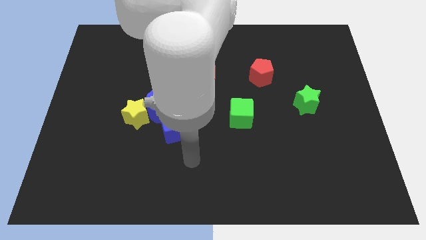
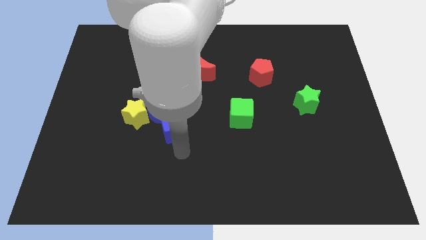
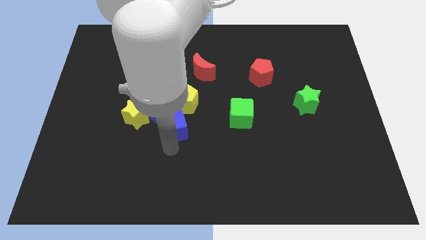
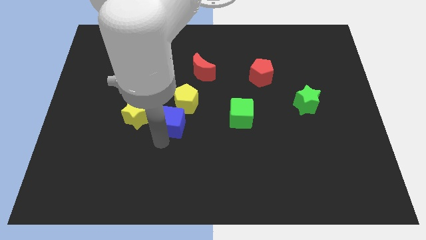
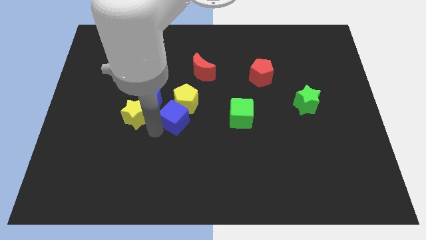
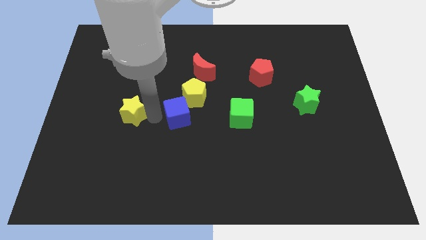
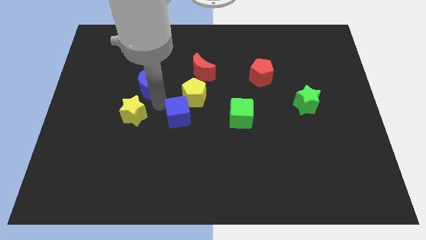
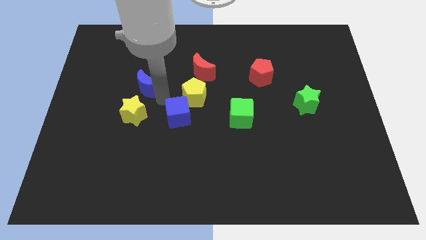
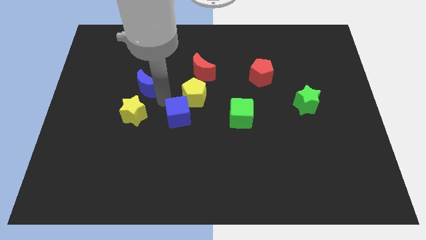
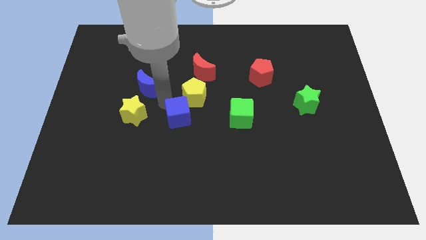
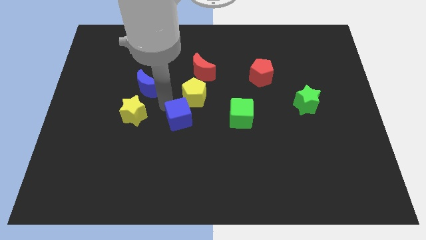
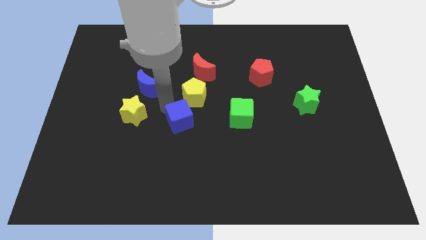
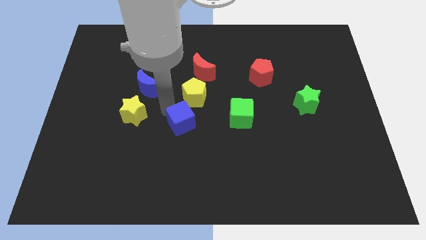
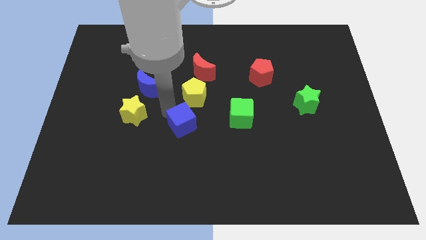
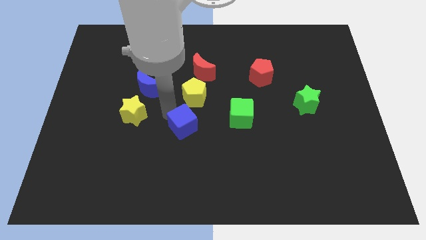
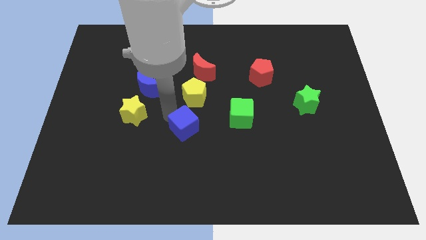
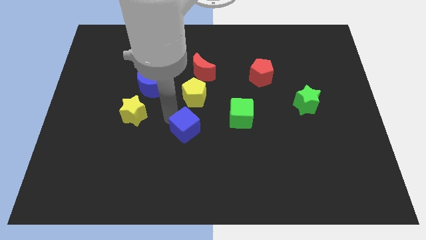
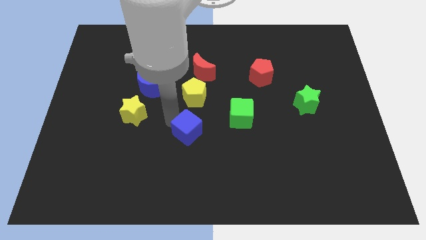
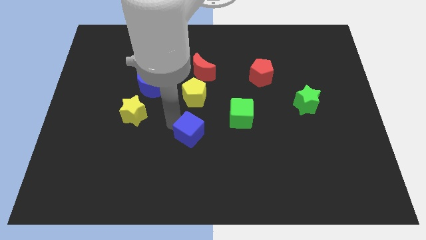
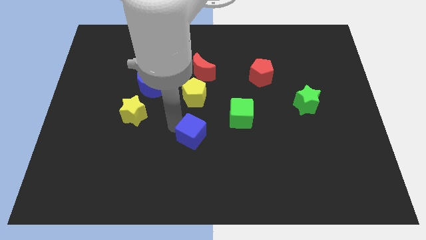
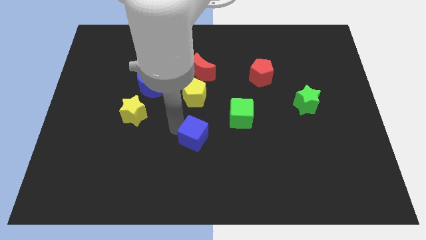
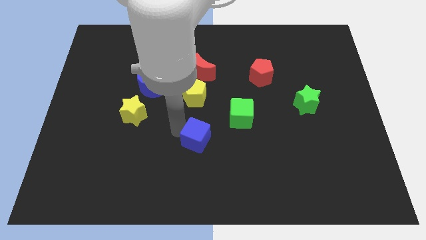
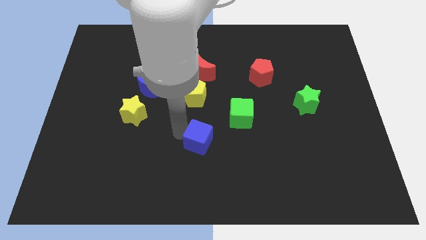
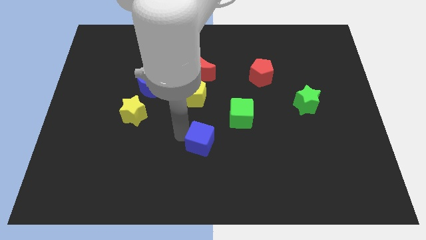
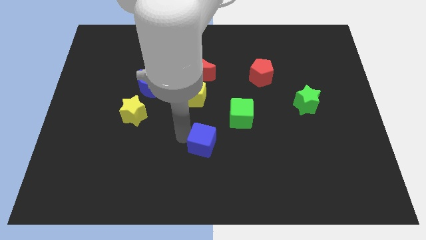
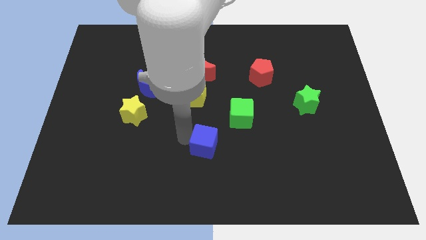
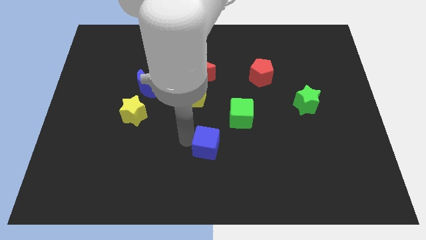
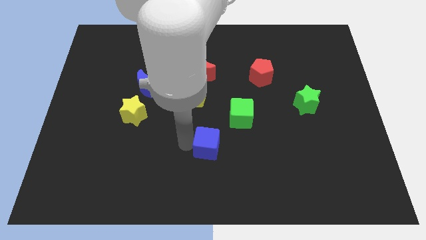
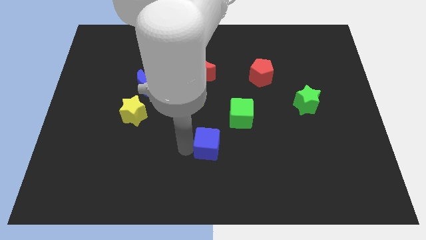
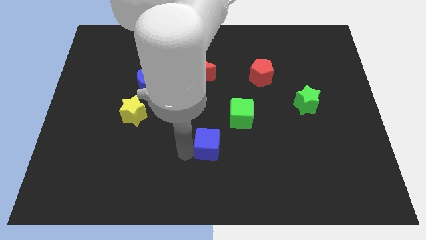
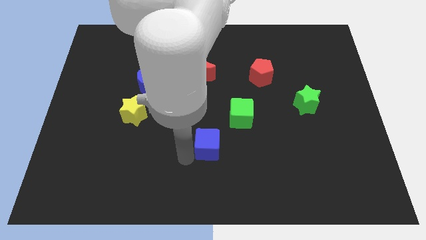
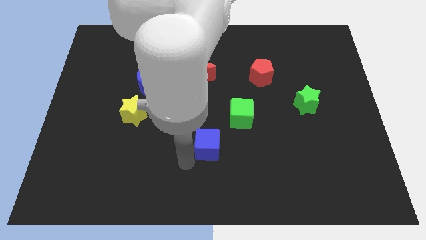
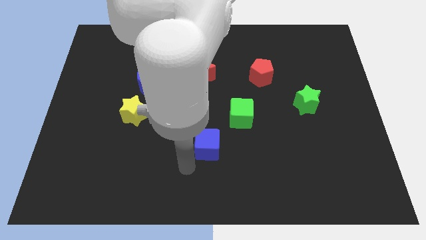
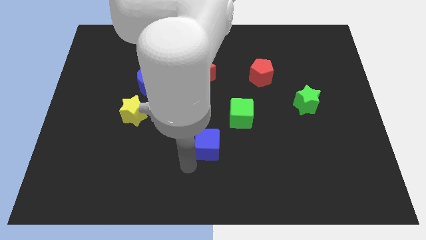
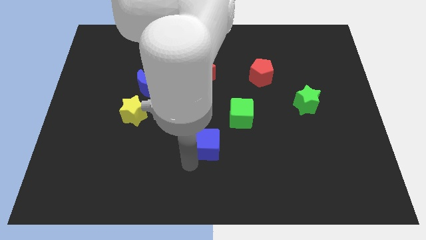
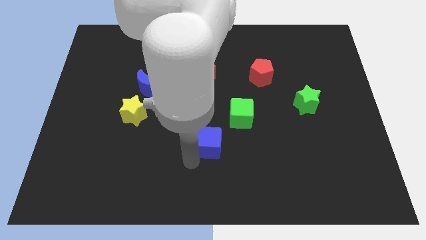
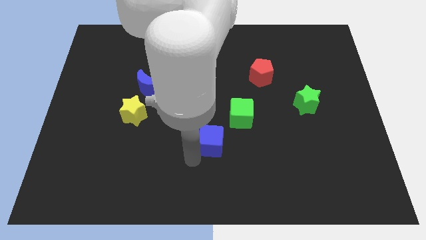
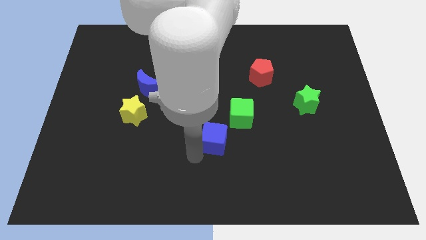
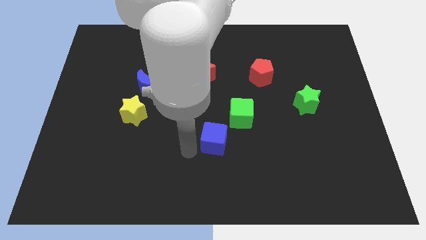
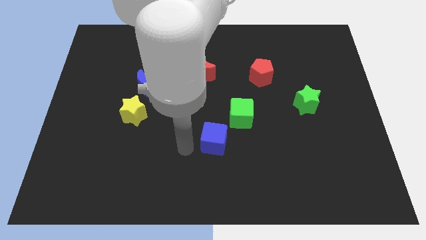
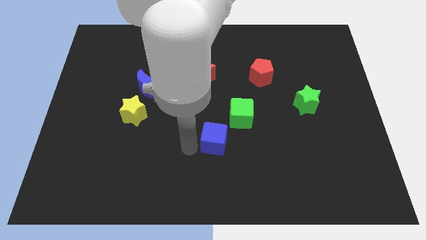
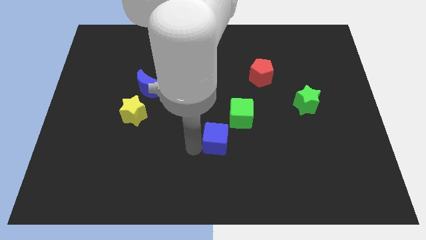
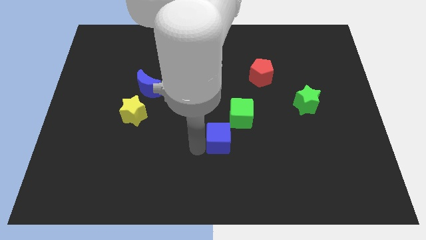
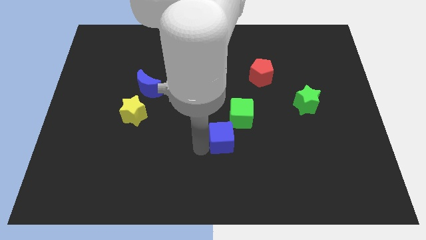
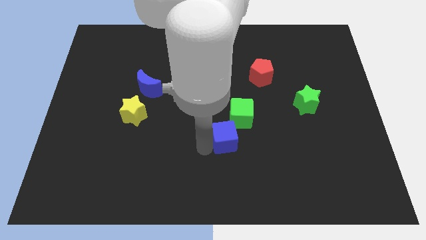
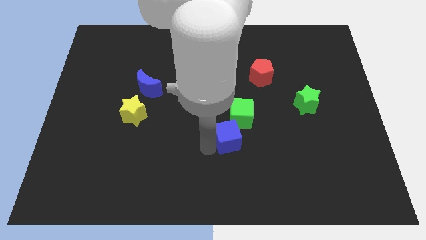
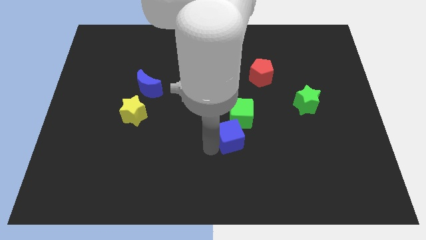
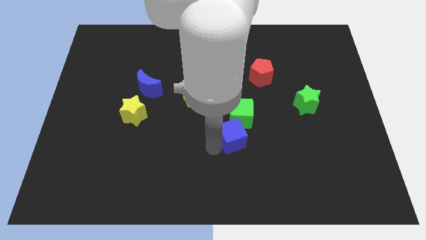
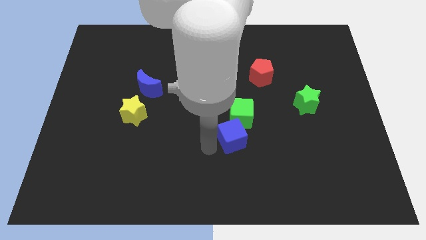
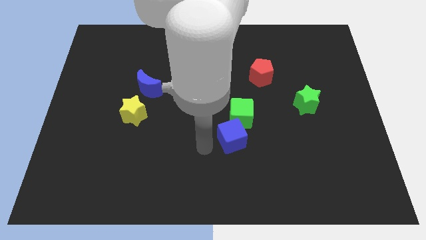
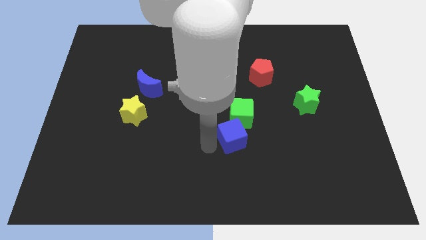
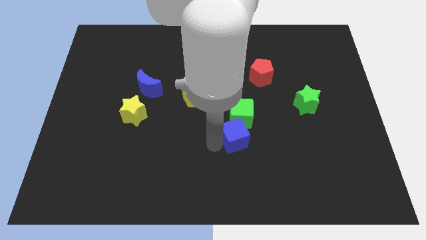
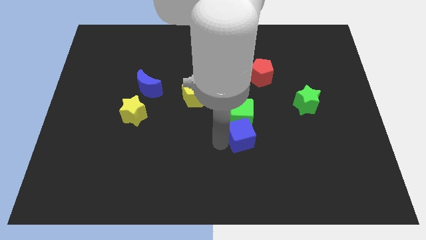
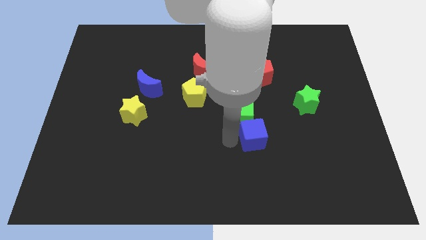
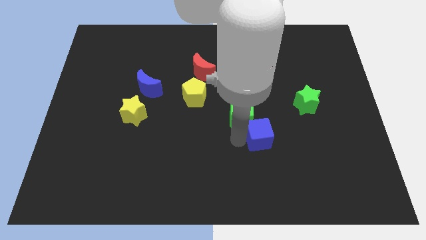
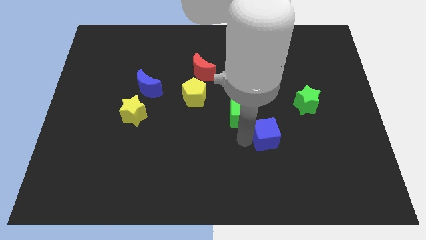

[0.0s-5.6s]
move the blue cube right

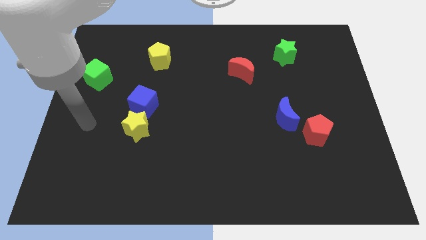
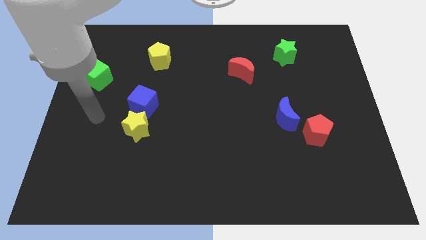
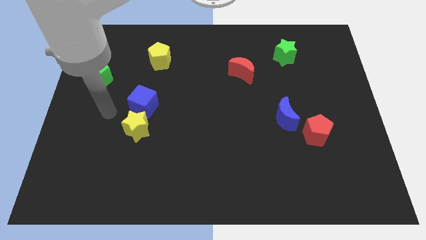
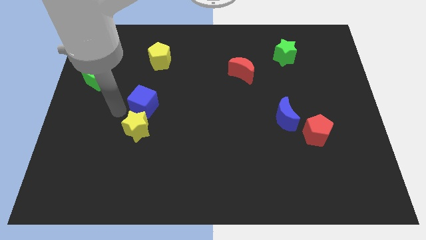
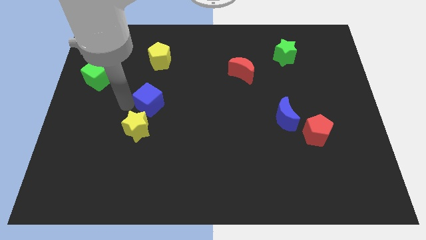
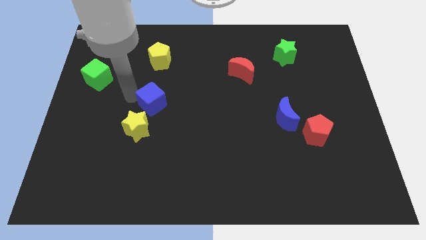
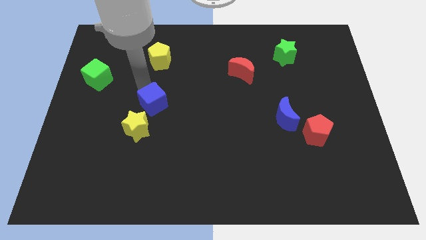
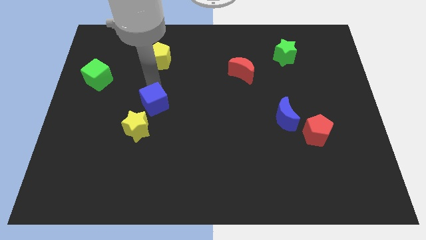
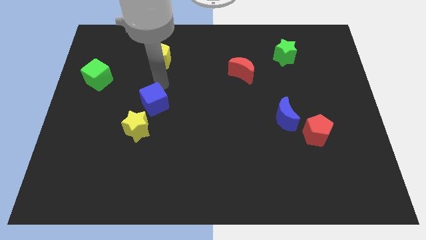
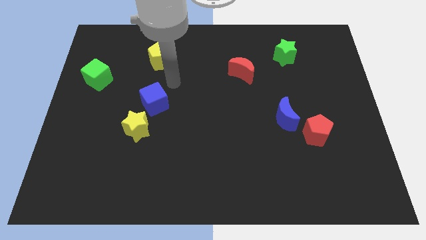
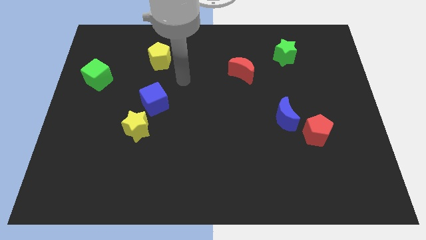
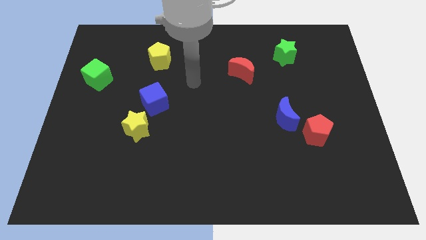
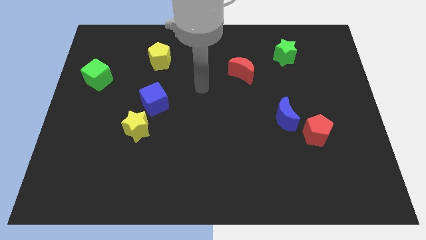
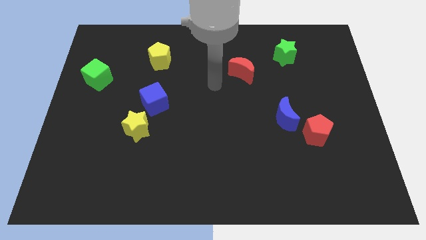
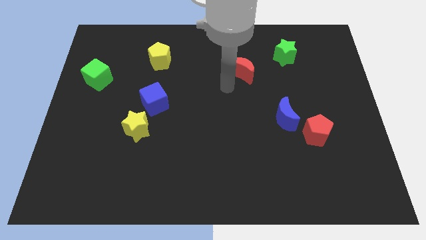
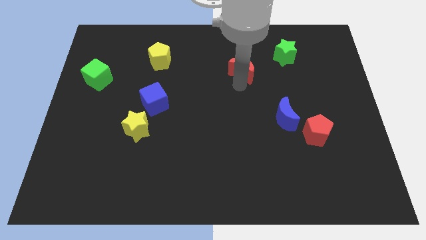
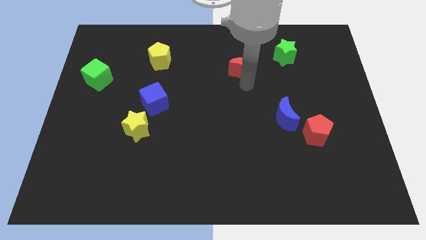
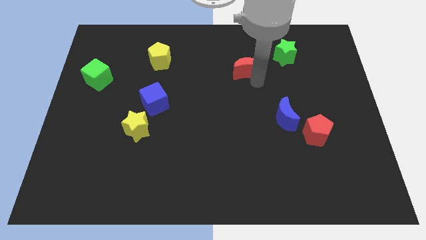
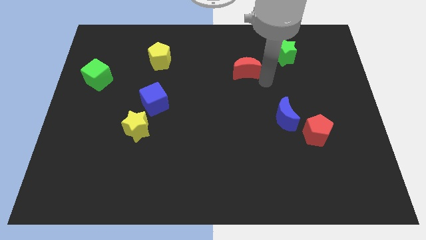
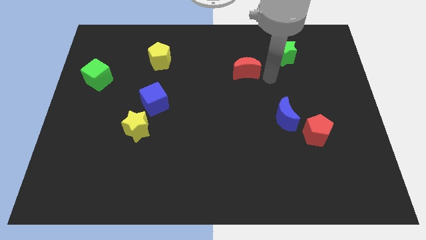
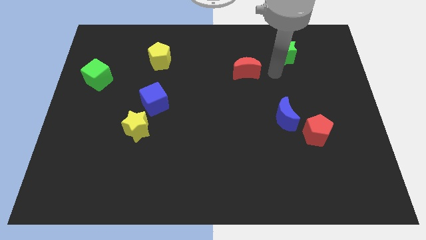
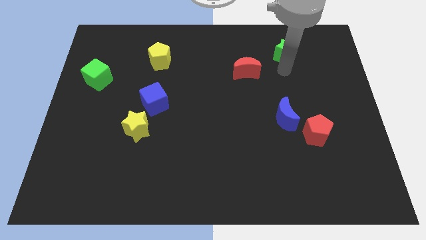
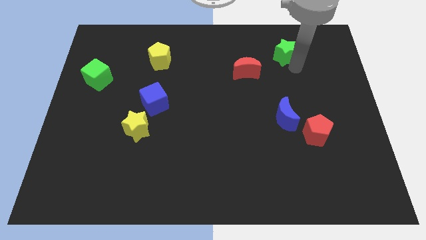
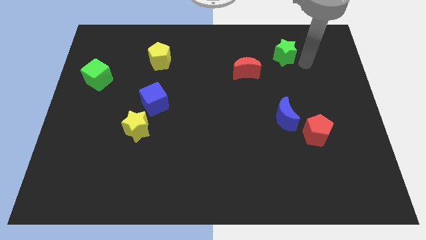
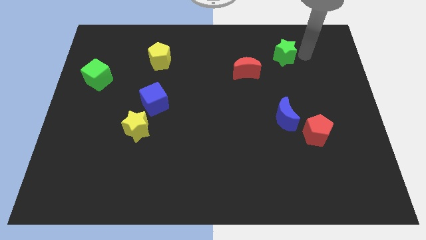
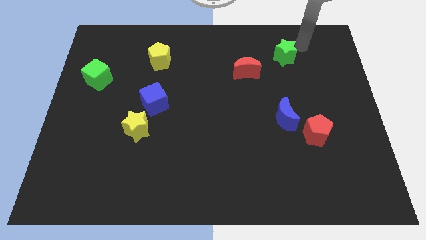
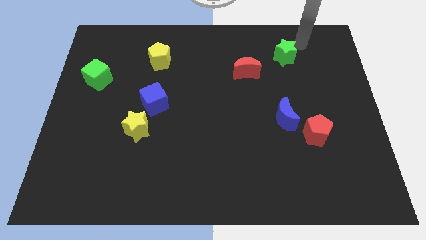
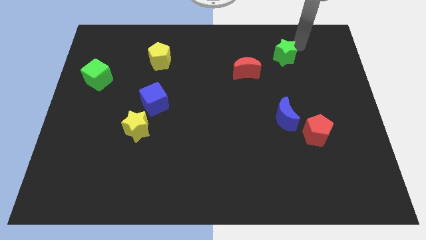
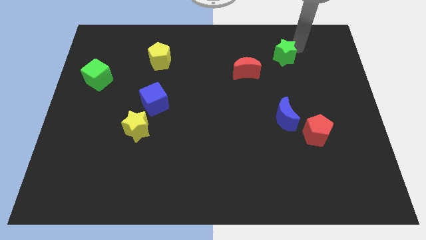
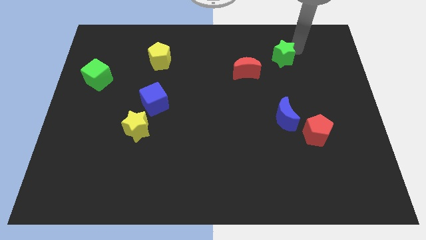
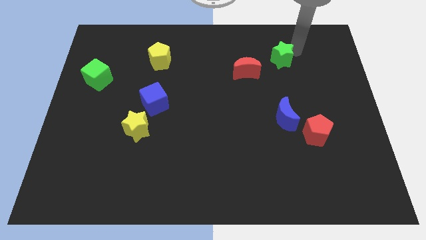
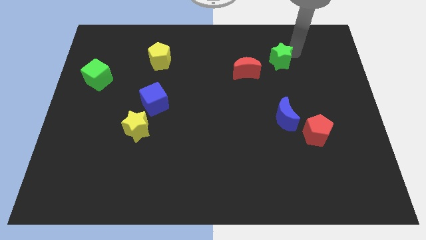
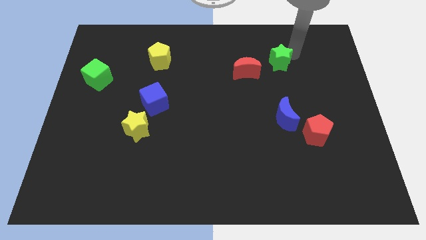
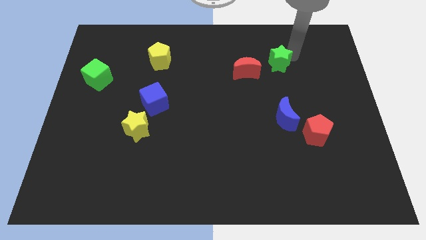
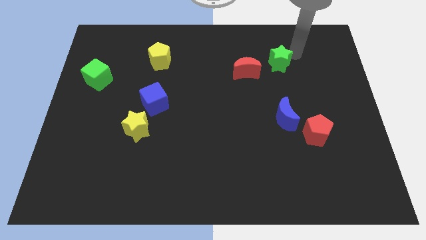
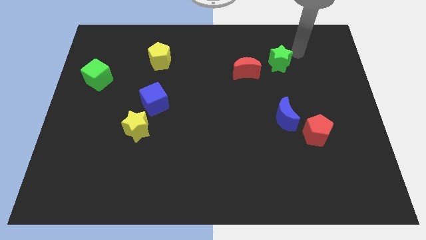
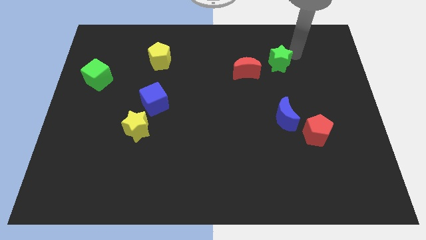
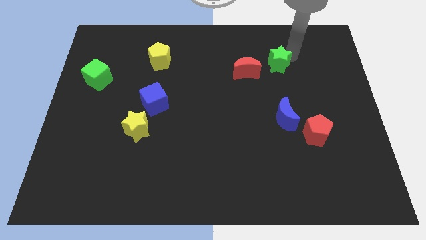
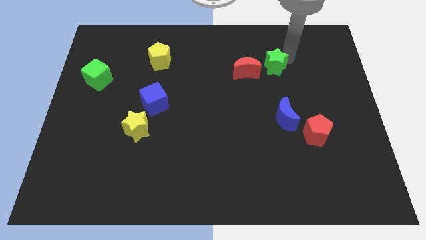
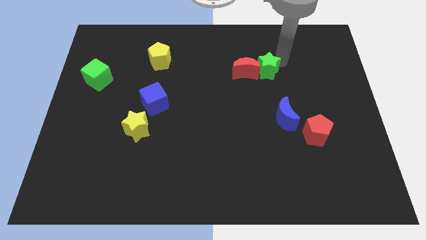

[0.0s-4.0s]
push the green star a little bit down and to the left
